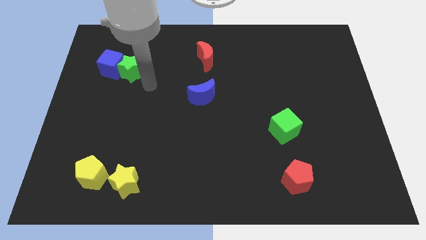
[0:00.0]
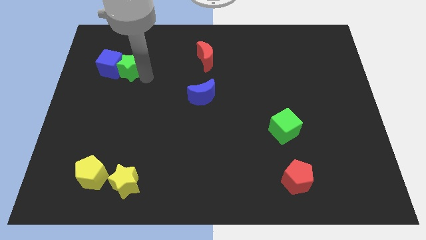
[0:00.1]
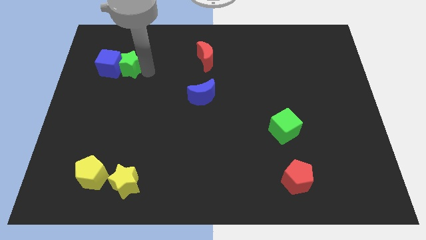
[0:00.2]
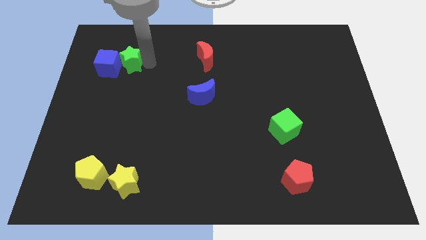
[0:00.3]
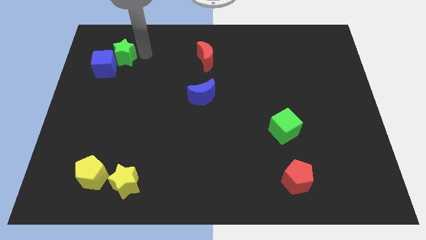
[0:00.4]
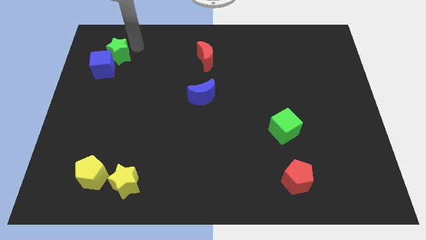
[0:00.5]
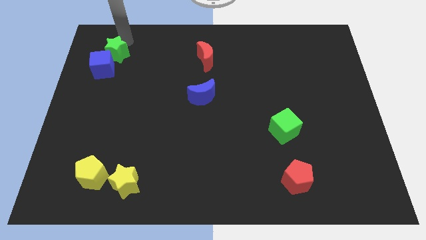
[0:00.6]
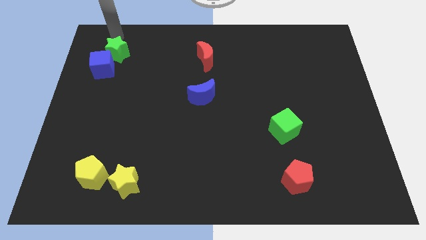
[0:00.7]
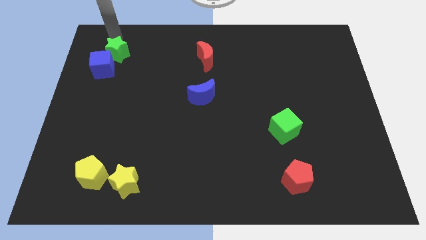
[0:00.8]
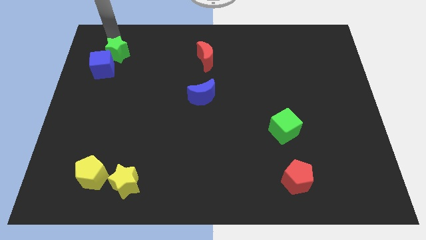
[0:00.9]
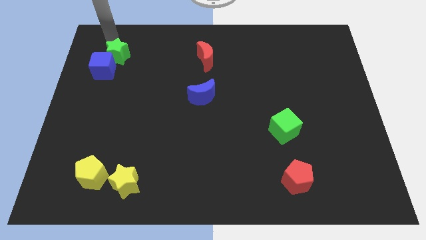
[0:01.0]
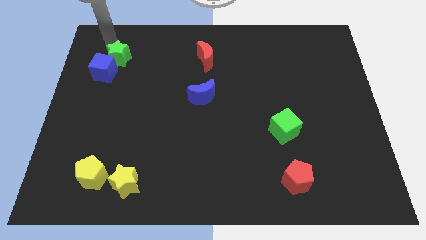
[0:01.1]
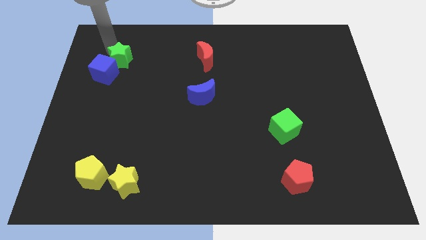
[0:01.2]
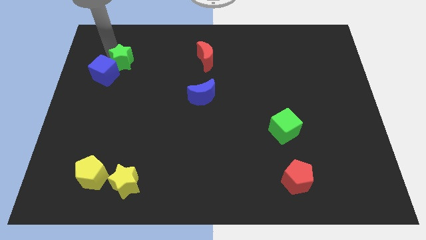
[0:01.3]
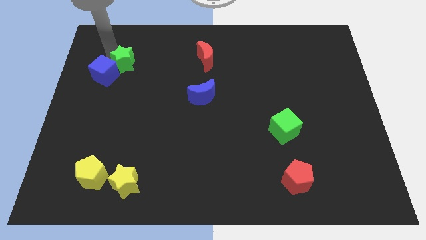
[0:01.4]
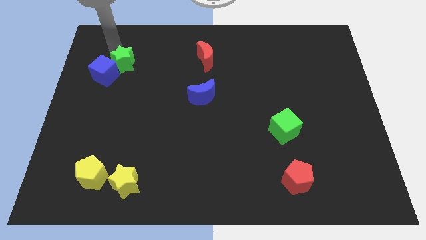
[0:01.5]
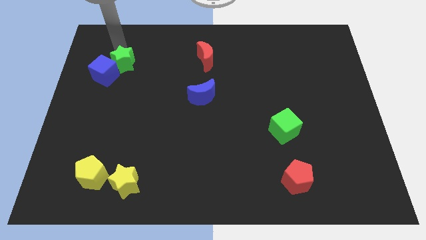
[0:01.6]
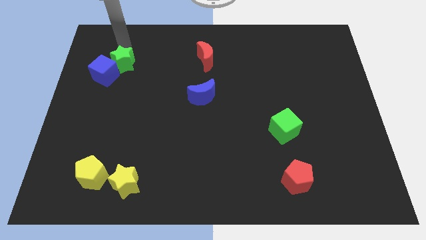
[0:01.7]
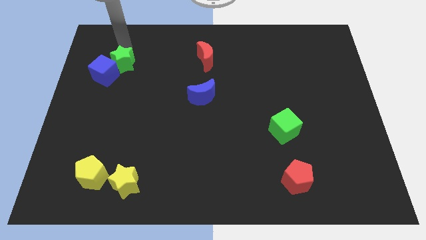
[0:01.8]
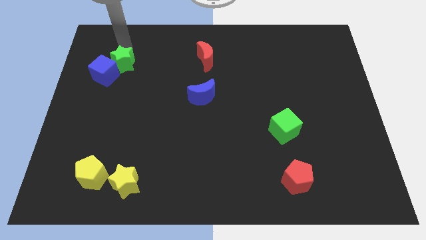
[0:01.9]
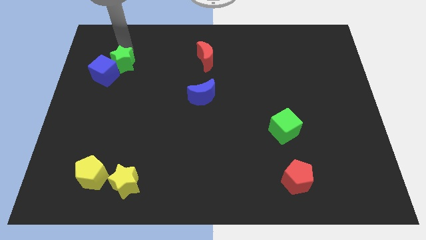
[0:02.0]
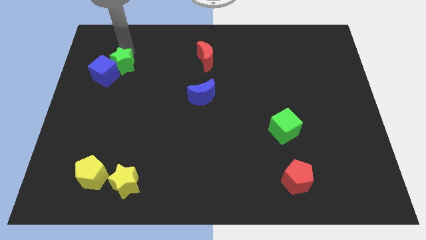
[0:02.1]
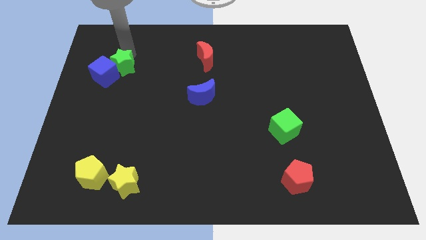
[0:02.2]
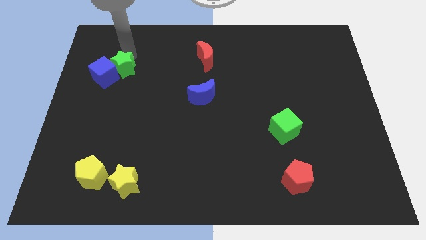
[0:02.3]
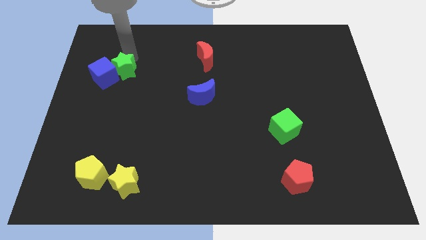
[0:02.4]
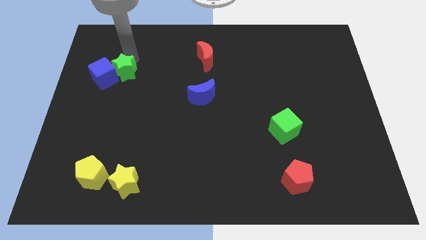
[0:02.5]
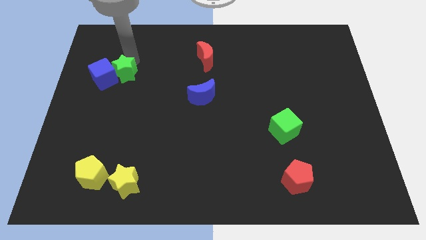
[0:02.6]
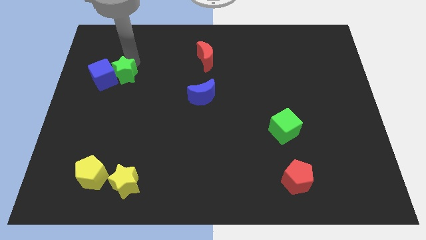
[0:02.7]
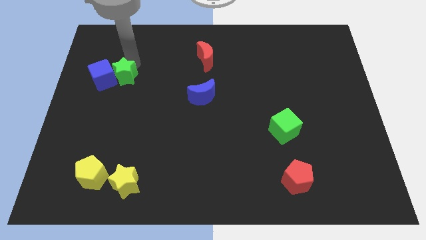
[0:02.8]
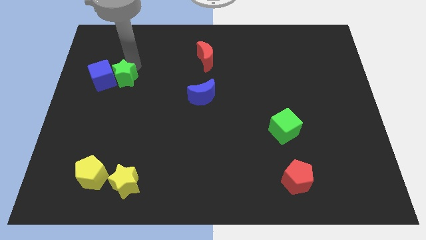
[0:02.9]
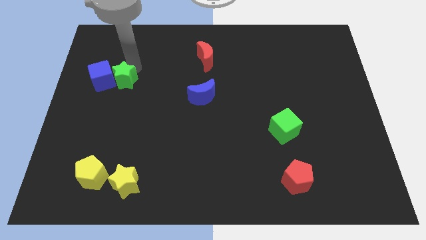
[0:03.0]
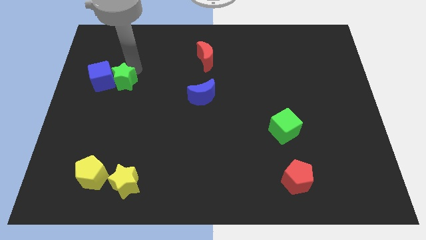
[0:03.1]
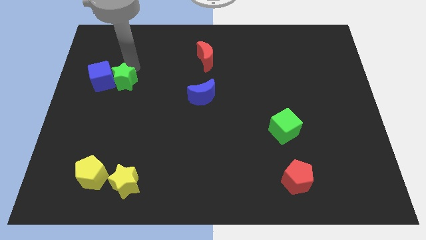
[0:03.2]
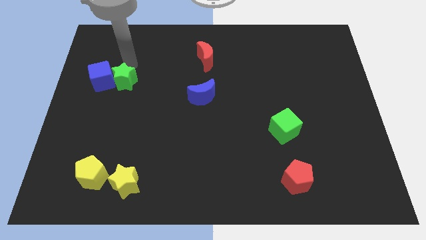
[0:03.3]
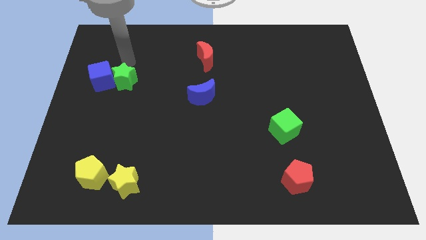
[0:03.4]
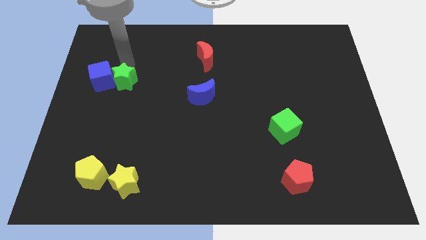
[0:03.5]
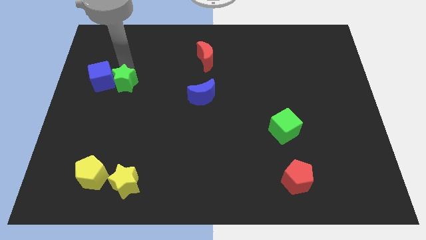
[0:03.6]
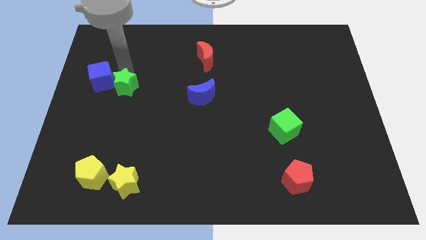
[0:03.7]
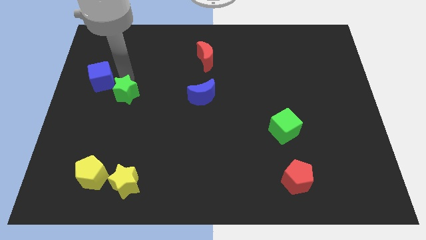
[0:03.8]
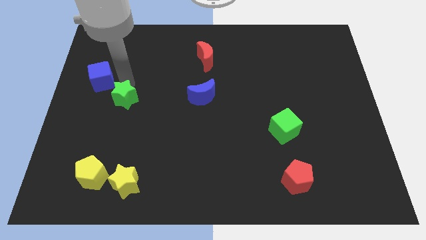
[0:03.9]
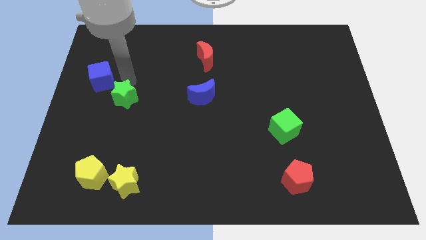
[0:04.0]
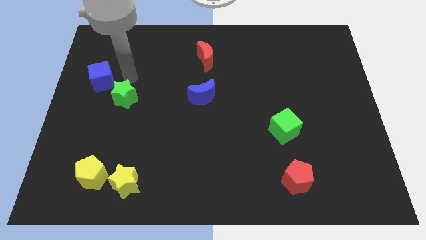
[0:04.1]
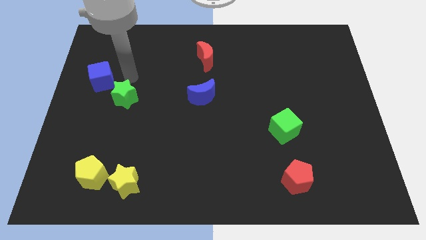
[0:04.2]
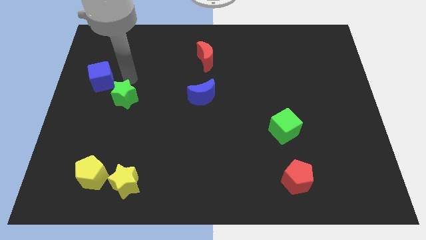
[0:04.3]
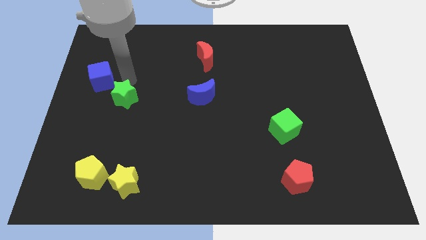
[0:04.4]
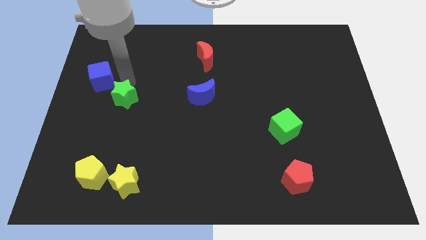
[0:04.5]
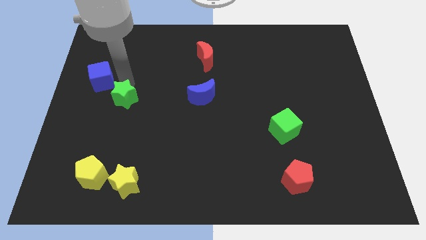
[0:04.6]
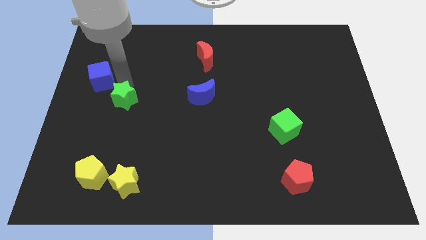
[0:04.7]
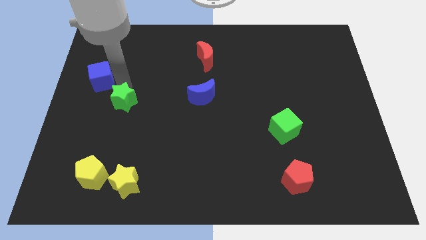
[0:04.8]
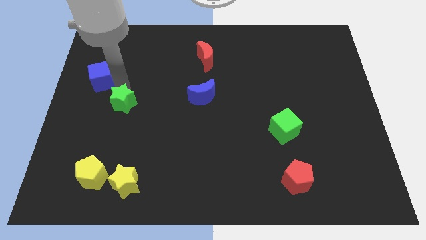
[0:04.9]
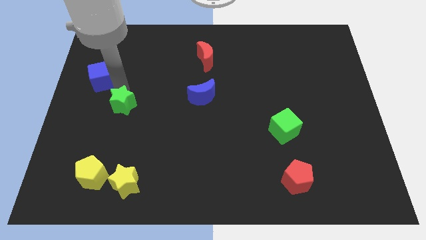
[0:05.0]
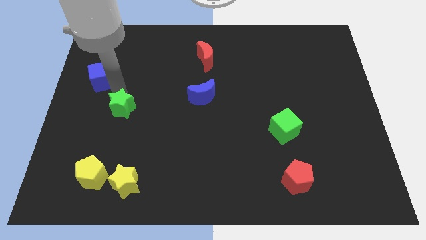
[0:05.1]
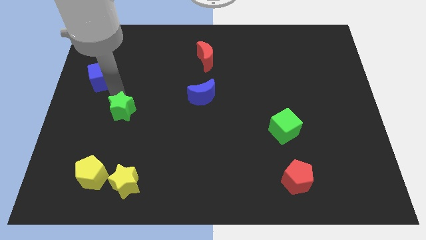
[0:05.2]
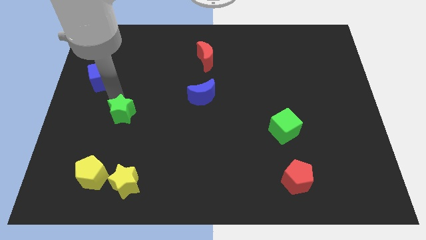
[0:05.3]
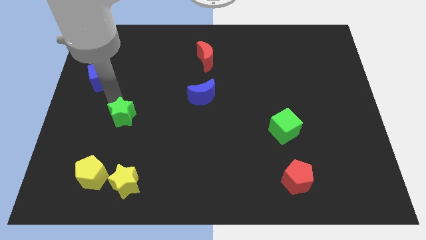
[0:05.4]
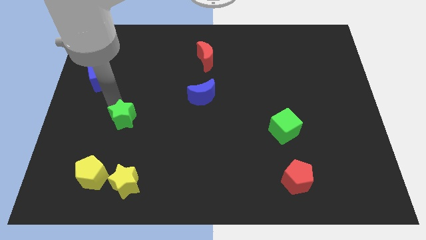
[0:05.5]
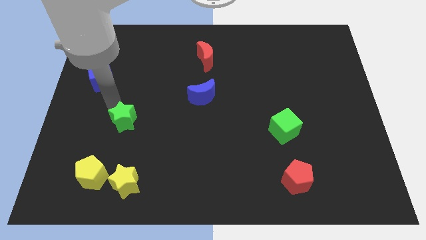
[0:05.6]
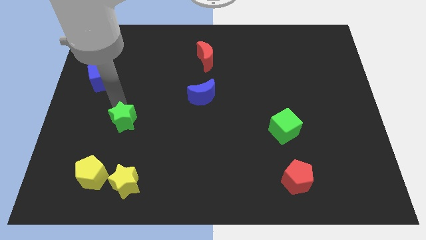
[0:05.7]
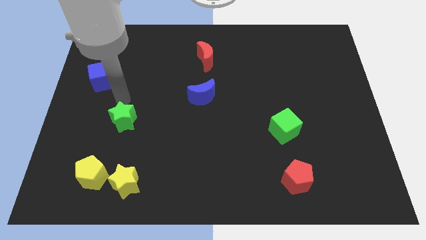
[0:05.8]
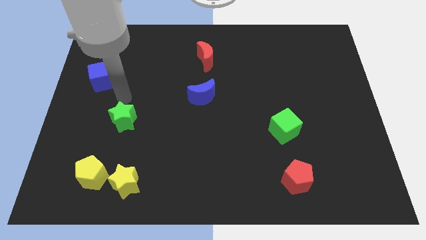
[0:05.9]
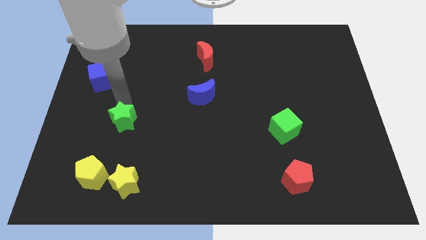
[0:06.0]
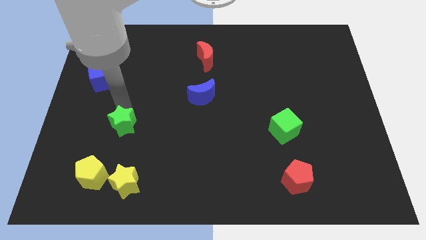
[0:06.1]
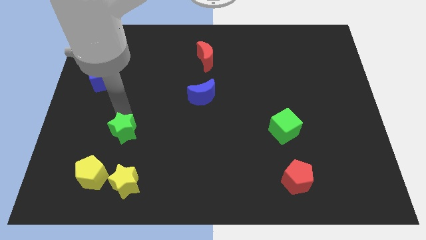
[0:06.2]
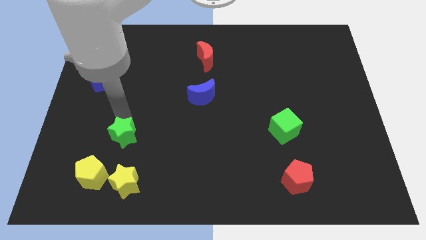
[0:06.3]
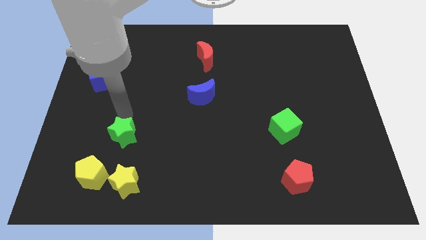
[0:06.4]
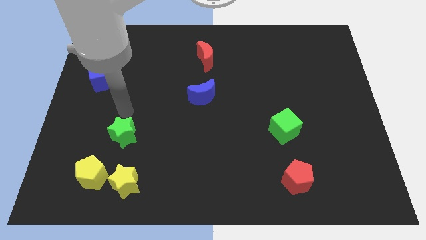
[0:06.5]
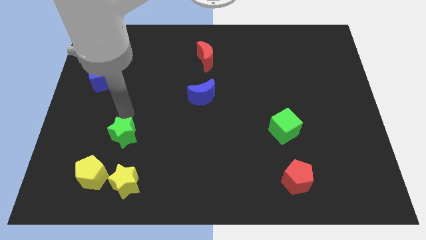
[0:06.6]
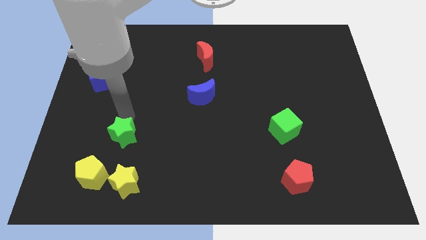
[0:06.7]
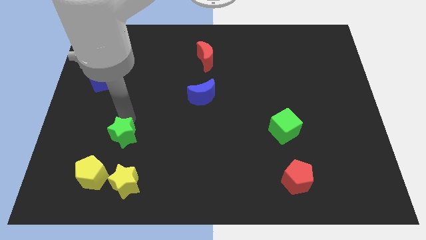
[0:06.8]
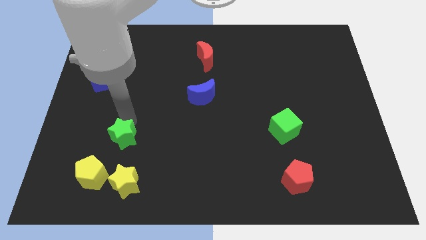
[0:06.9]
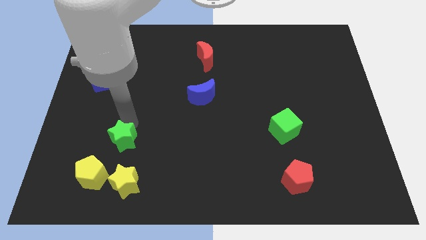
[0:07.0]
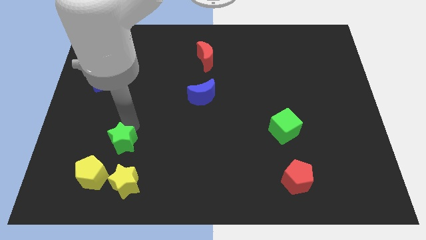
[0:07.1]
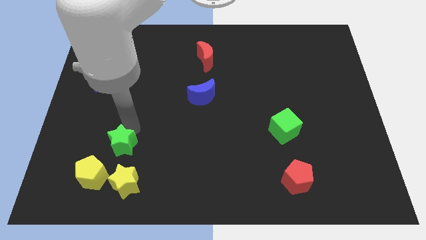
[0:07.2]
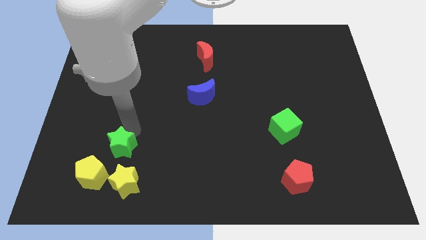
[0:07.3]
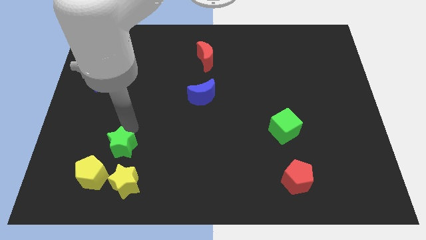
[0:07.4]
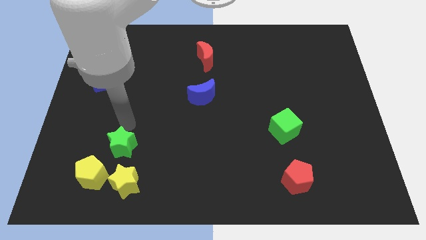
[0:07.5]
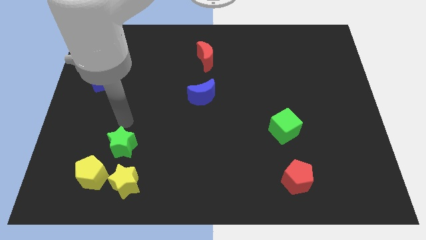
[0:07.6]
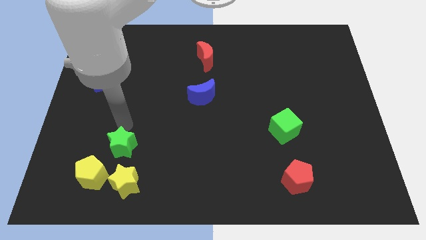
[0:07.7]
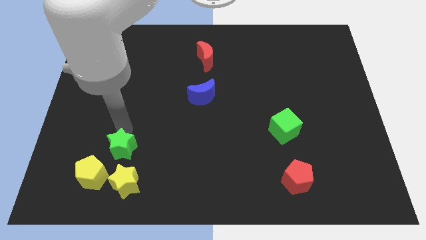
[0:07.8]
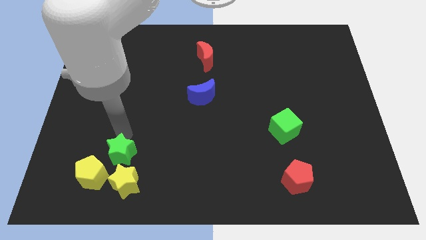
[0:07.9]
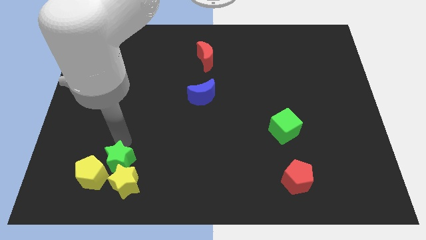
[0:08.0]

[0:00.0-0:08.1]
move the green star next to the yellow star
